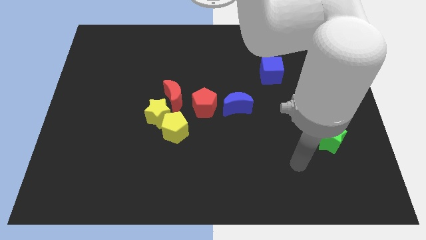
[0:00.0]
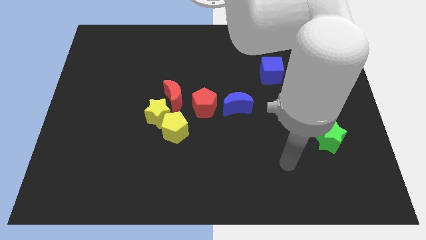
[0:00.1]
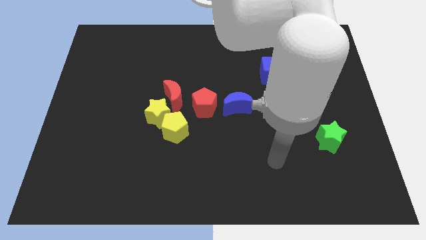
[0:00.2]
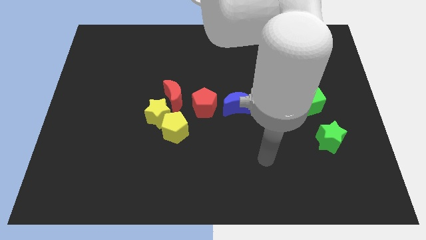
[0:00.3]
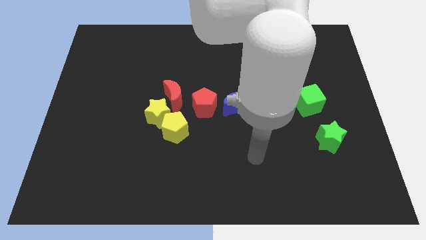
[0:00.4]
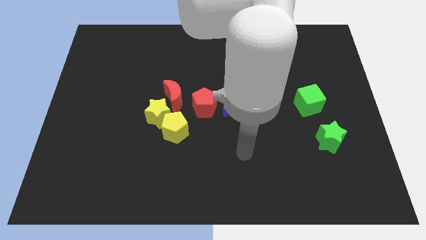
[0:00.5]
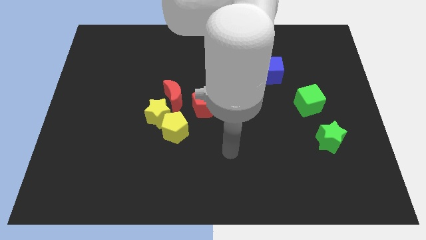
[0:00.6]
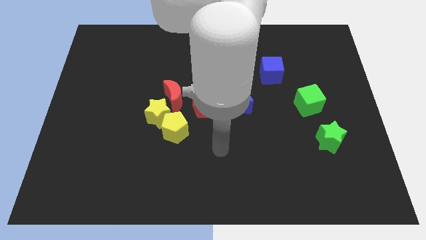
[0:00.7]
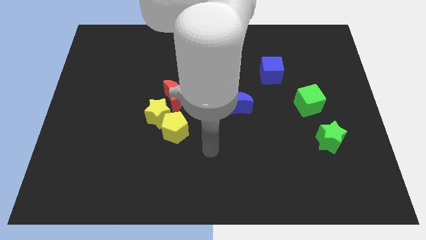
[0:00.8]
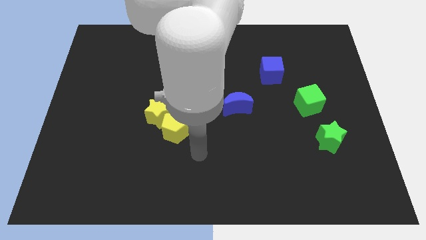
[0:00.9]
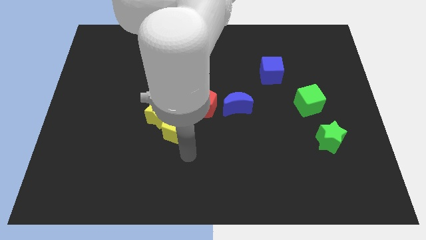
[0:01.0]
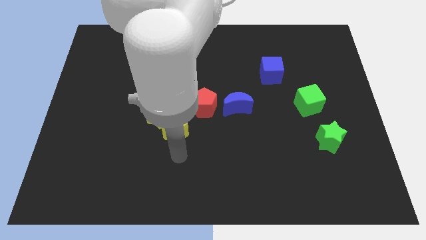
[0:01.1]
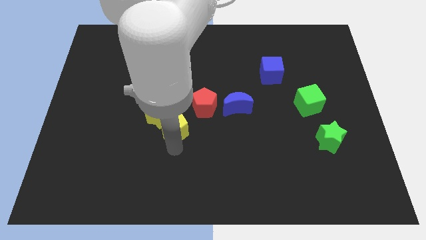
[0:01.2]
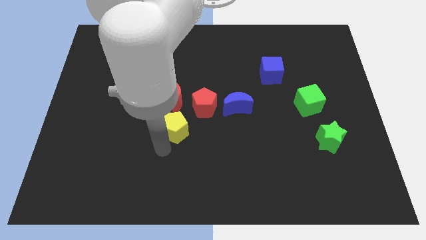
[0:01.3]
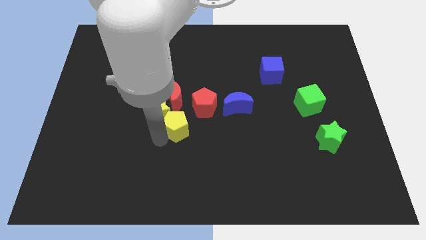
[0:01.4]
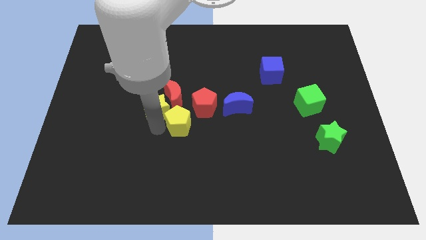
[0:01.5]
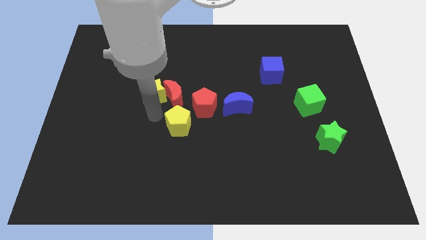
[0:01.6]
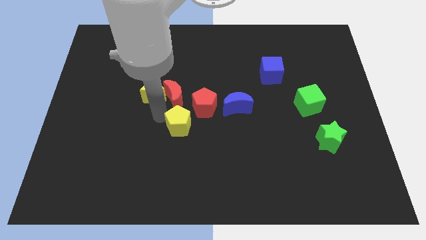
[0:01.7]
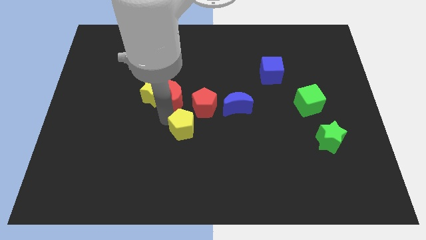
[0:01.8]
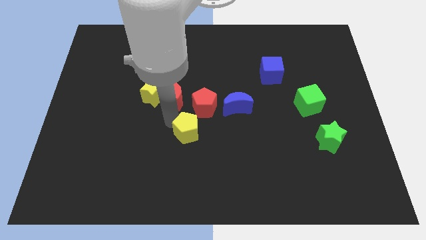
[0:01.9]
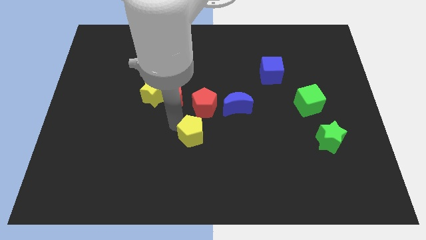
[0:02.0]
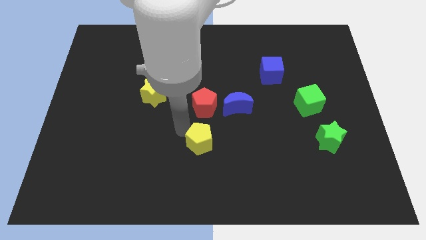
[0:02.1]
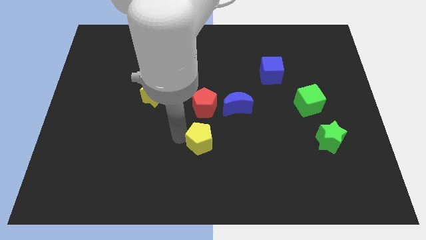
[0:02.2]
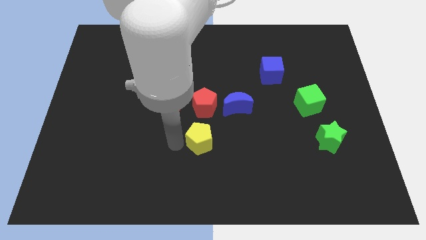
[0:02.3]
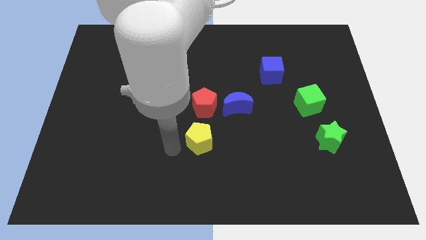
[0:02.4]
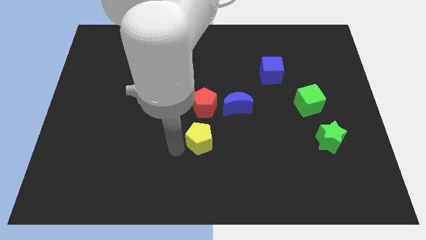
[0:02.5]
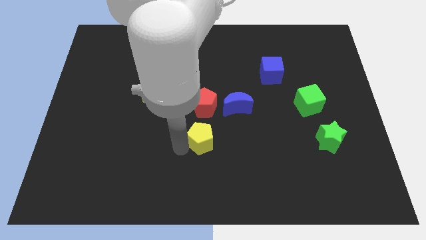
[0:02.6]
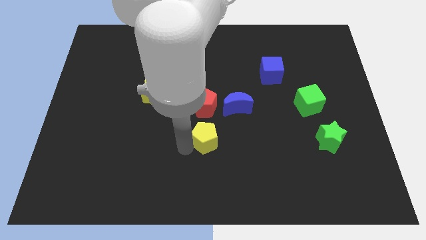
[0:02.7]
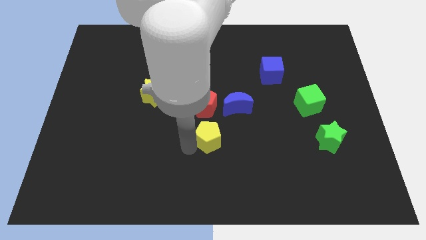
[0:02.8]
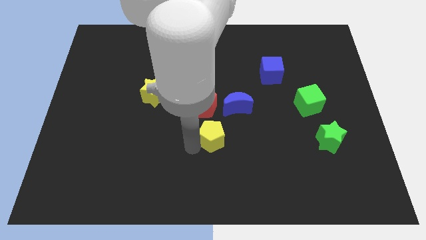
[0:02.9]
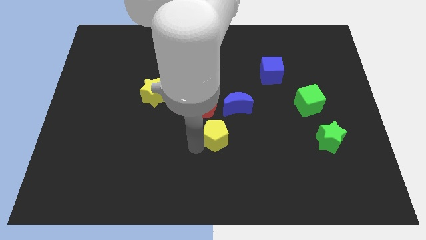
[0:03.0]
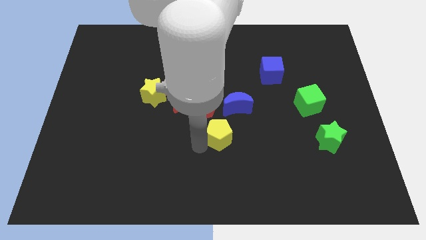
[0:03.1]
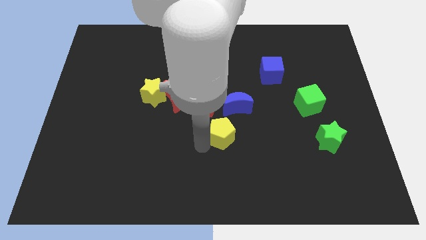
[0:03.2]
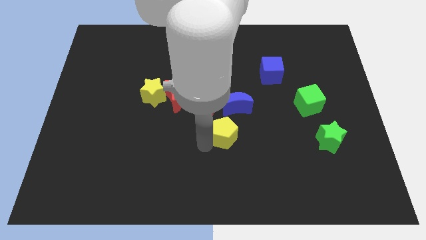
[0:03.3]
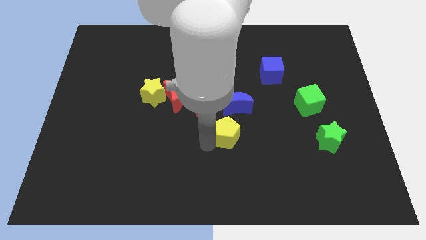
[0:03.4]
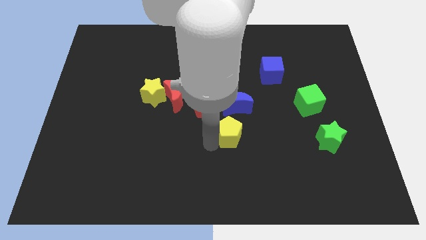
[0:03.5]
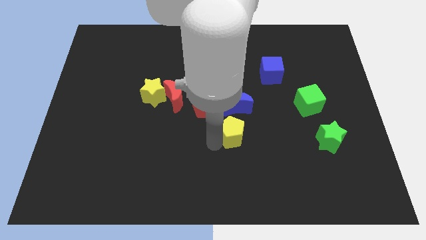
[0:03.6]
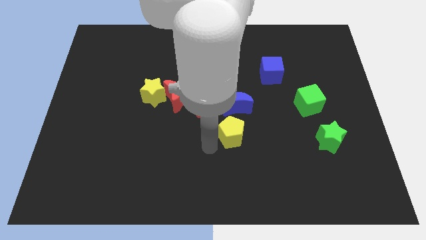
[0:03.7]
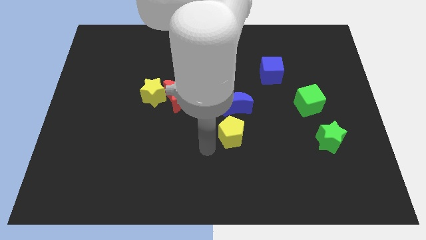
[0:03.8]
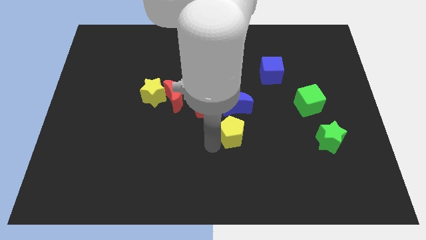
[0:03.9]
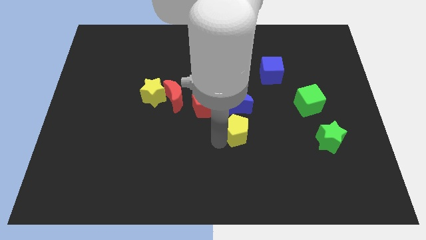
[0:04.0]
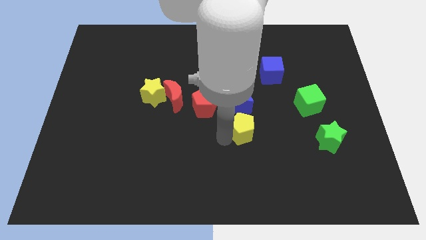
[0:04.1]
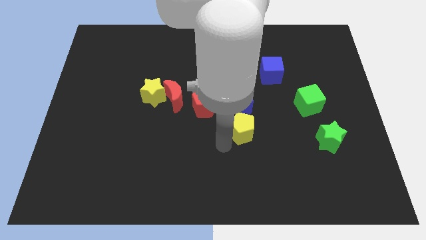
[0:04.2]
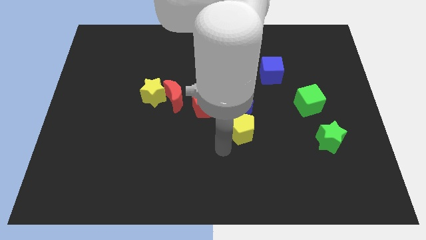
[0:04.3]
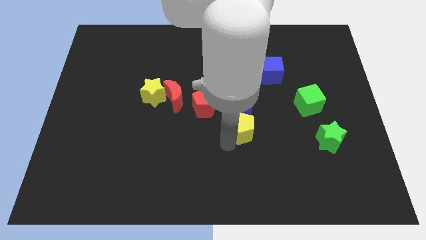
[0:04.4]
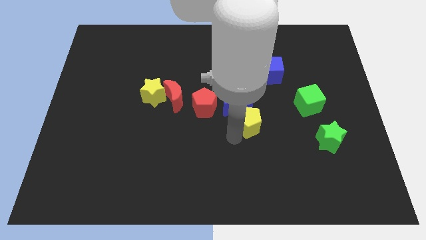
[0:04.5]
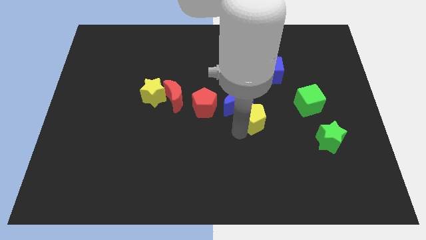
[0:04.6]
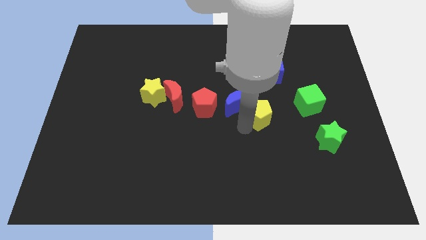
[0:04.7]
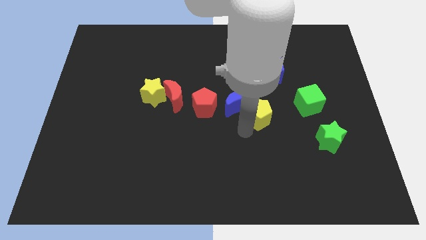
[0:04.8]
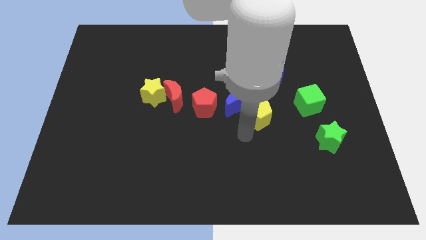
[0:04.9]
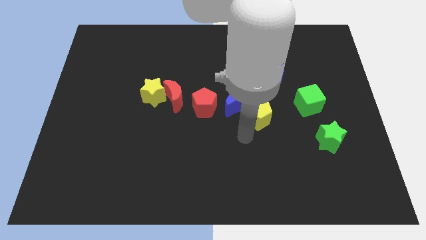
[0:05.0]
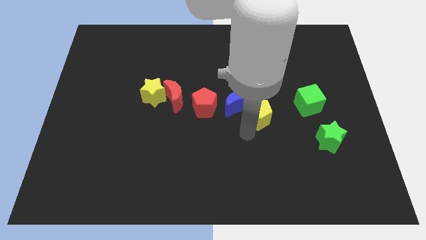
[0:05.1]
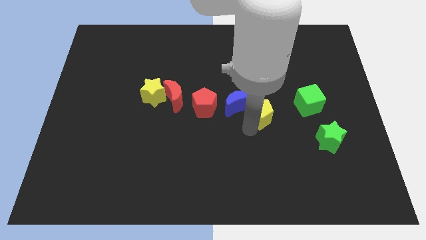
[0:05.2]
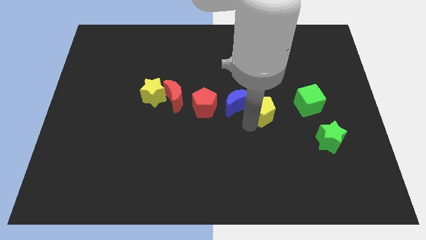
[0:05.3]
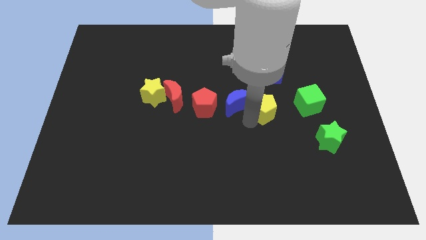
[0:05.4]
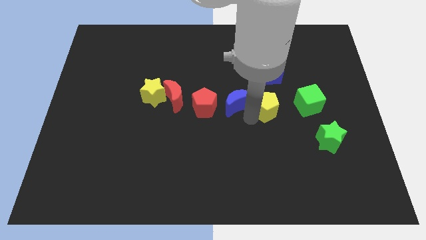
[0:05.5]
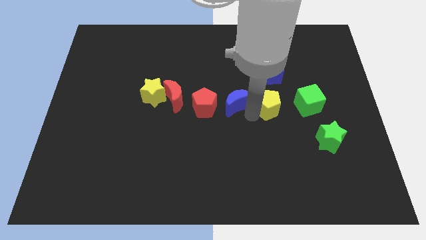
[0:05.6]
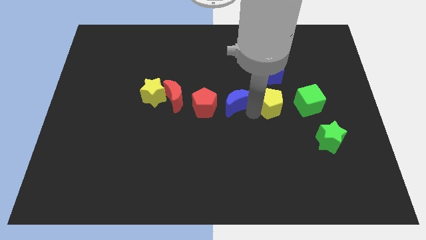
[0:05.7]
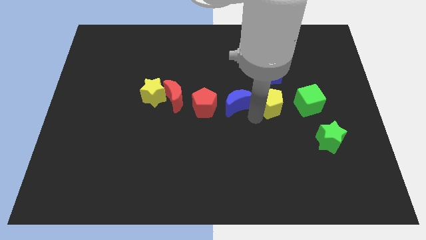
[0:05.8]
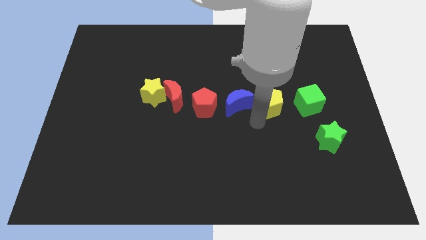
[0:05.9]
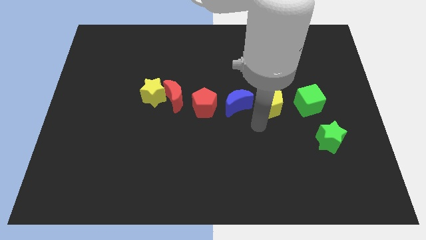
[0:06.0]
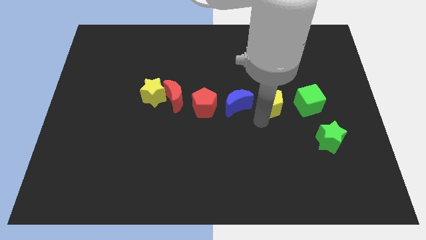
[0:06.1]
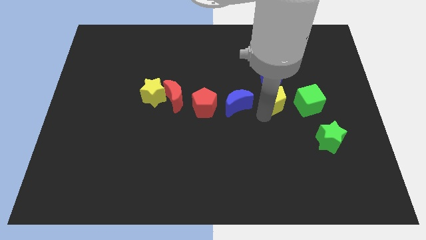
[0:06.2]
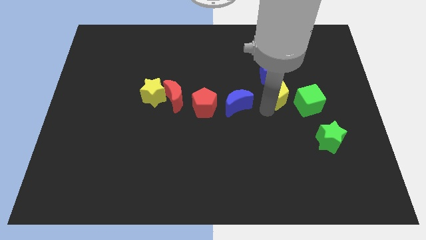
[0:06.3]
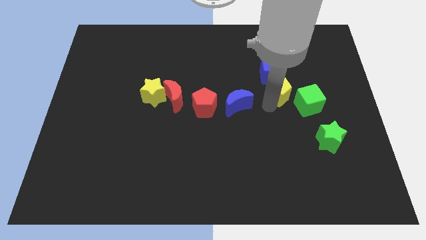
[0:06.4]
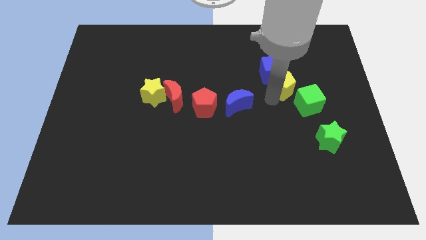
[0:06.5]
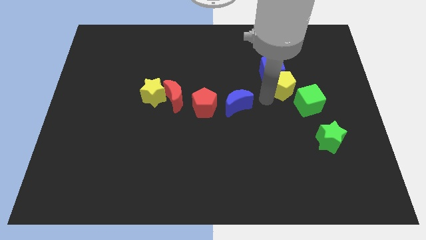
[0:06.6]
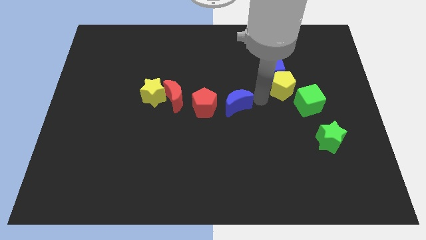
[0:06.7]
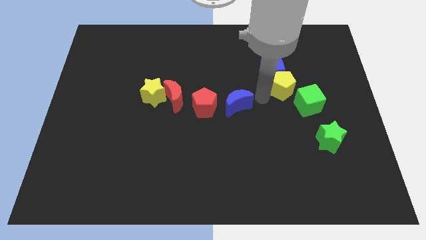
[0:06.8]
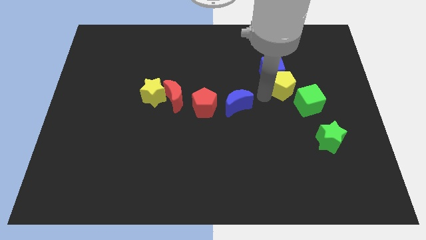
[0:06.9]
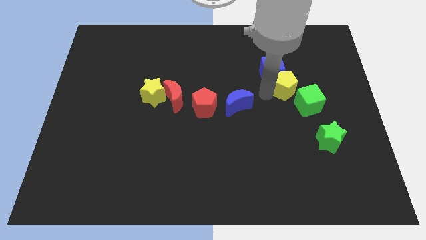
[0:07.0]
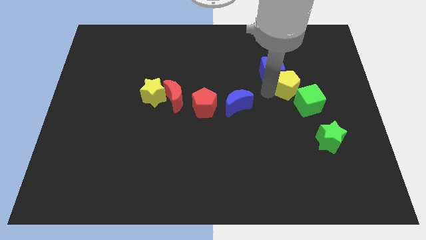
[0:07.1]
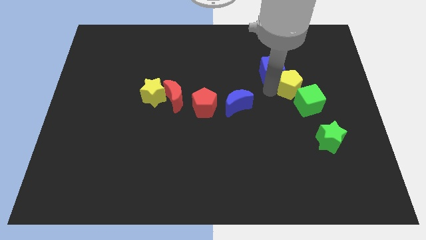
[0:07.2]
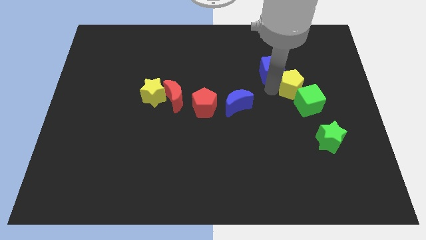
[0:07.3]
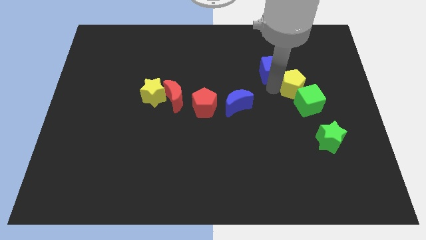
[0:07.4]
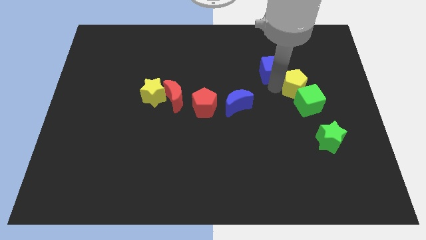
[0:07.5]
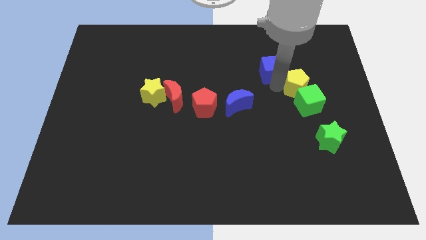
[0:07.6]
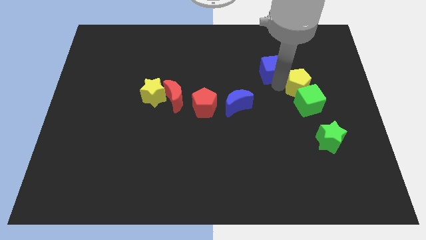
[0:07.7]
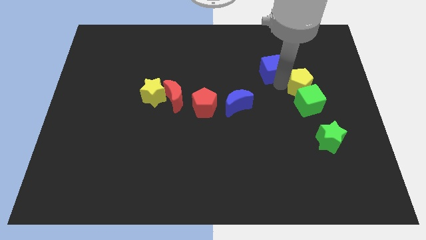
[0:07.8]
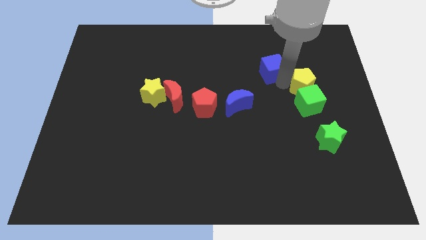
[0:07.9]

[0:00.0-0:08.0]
push the yellow pentagon diagonally up and to the right of the green cube

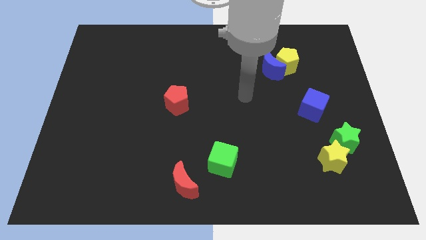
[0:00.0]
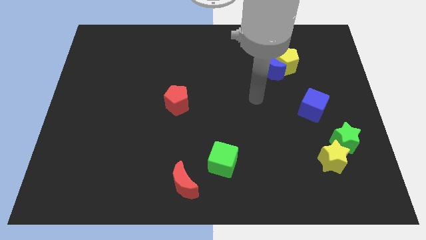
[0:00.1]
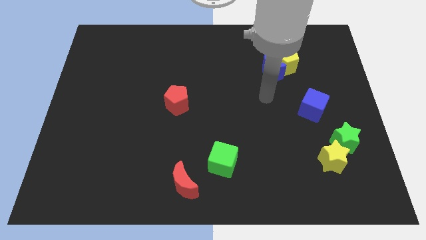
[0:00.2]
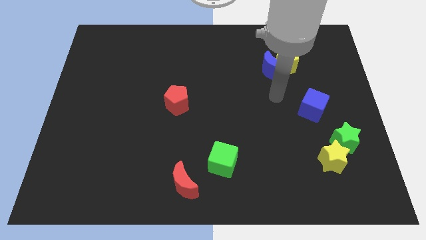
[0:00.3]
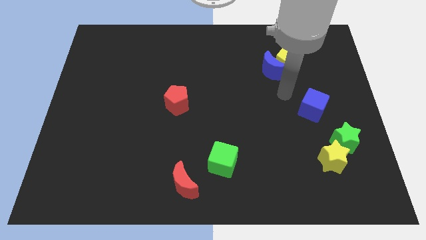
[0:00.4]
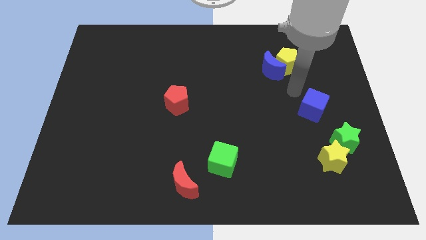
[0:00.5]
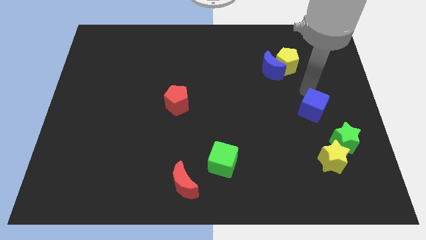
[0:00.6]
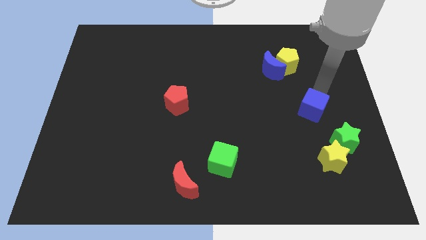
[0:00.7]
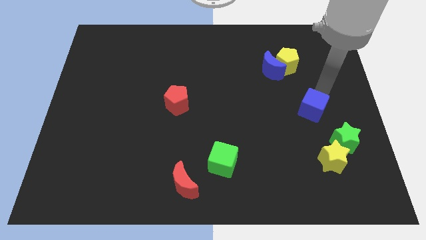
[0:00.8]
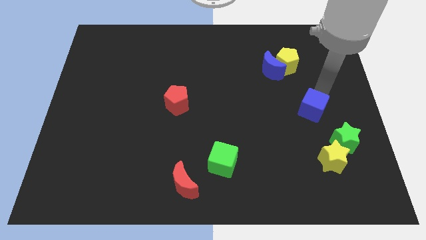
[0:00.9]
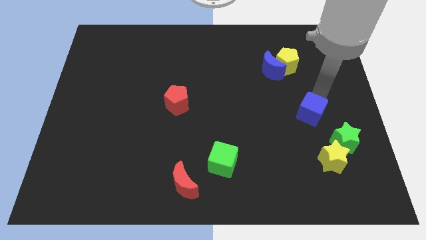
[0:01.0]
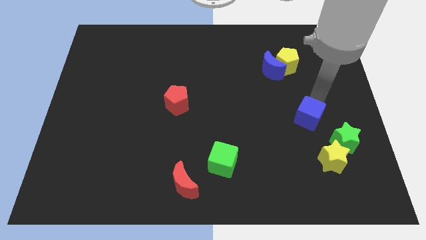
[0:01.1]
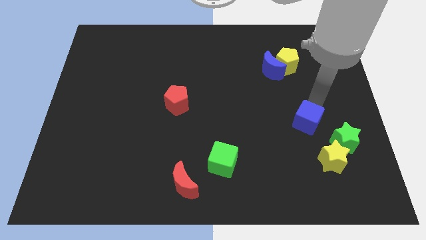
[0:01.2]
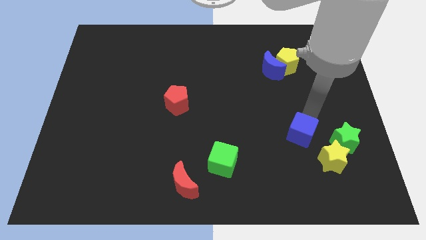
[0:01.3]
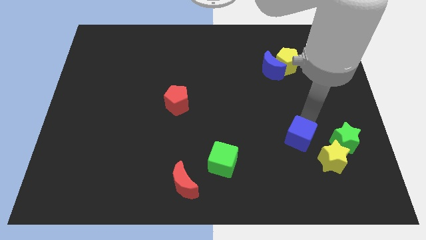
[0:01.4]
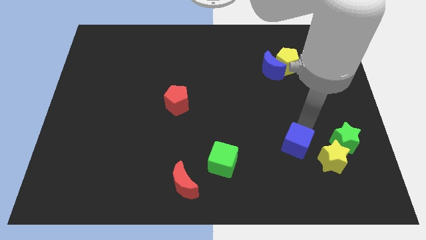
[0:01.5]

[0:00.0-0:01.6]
push the blue cube to the left of the yellow star
